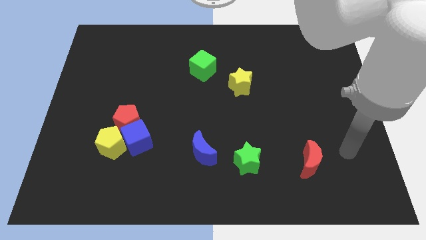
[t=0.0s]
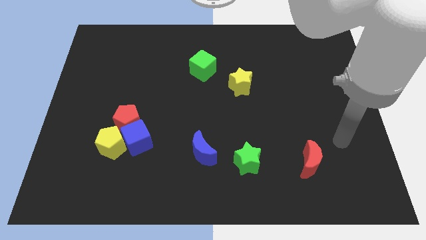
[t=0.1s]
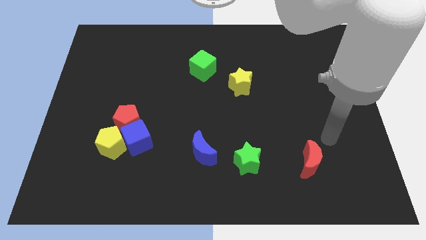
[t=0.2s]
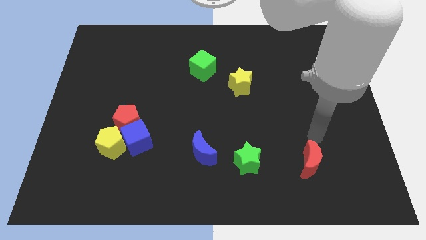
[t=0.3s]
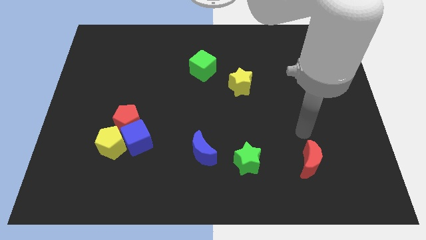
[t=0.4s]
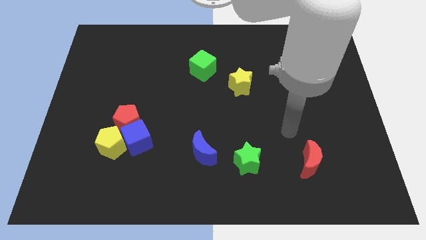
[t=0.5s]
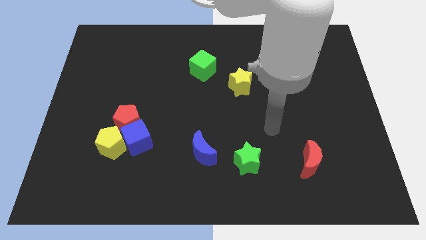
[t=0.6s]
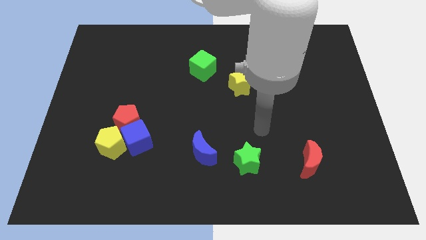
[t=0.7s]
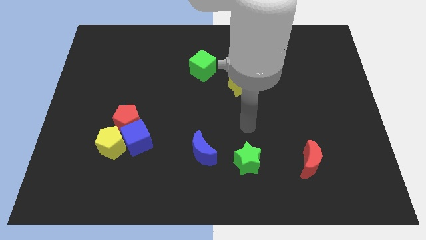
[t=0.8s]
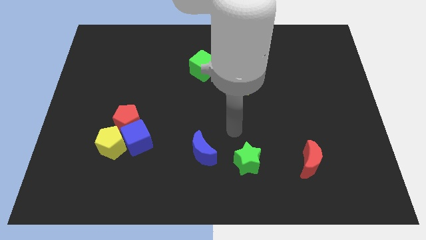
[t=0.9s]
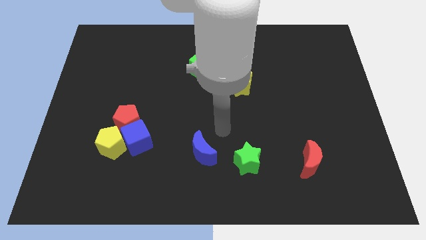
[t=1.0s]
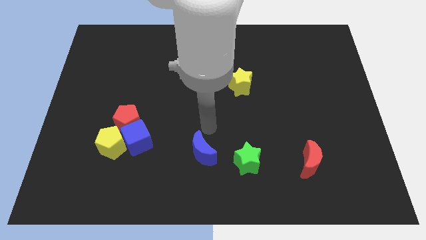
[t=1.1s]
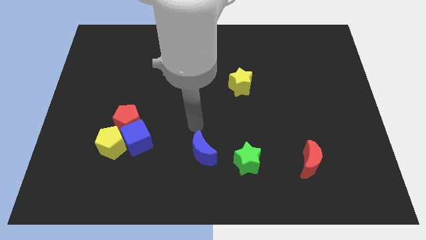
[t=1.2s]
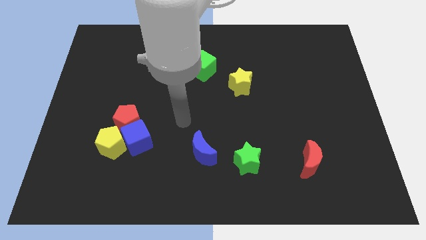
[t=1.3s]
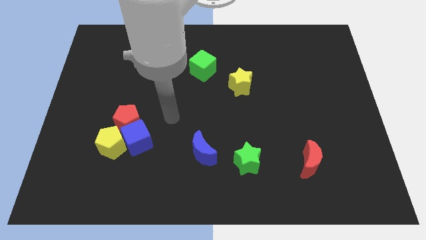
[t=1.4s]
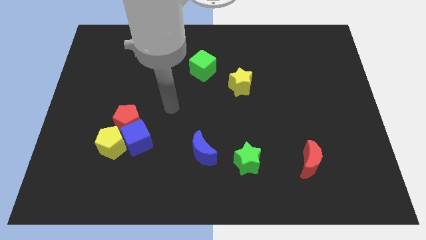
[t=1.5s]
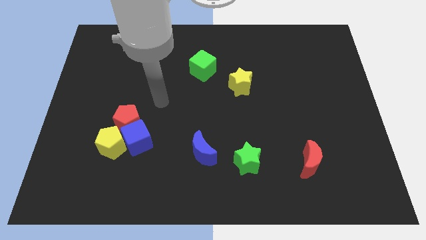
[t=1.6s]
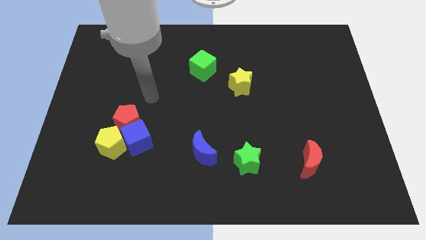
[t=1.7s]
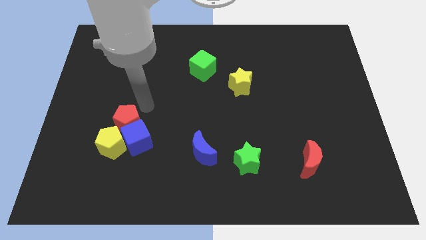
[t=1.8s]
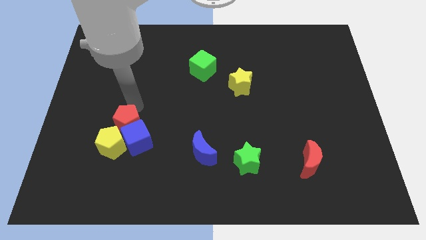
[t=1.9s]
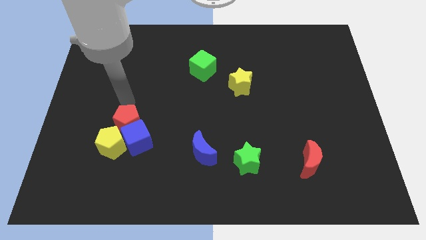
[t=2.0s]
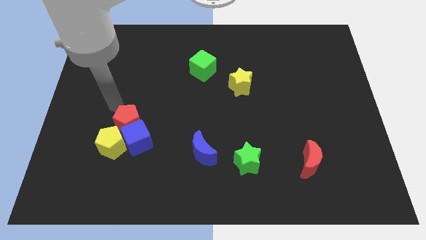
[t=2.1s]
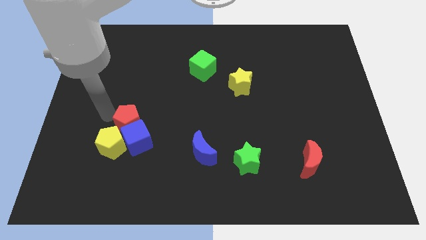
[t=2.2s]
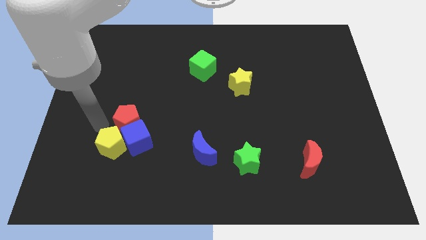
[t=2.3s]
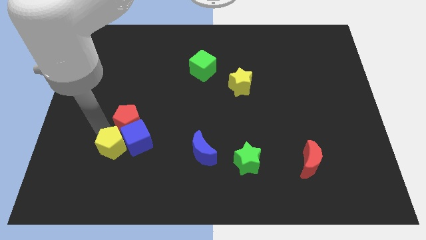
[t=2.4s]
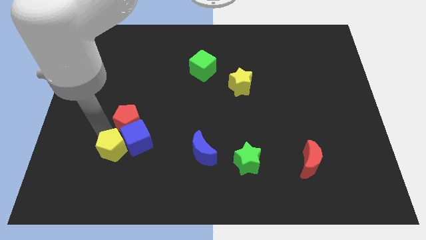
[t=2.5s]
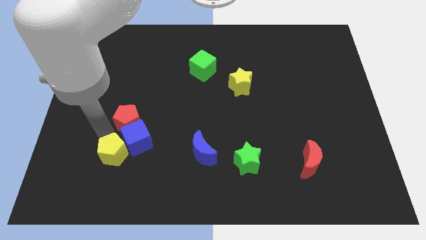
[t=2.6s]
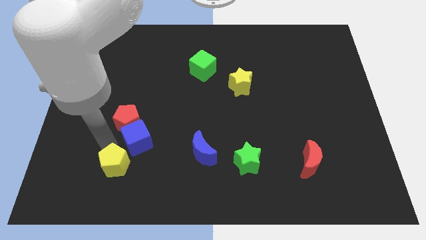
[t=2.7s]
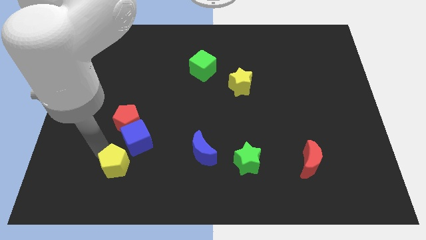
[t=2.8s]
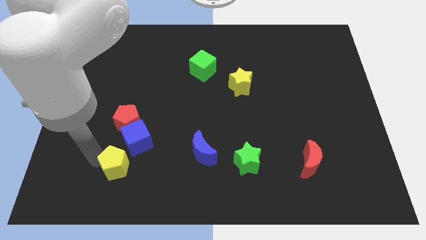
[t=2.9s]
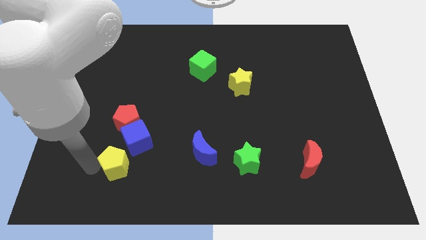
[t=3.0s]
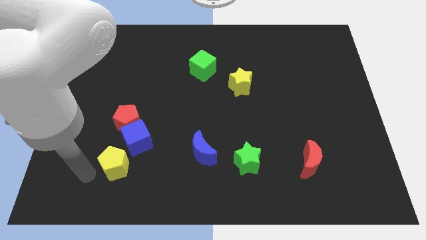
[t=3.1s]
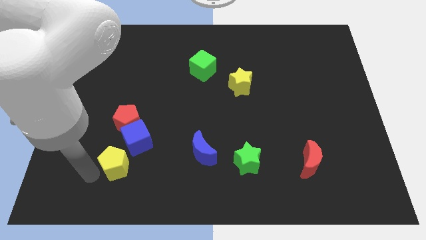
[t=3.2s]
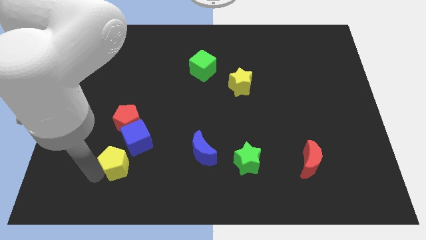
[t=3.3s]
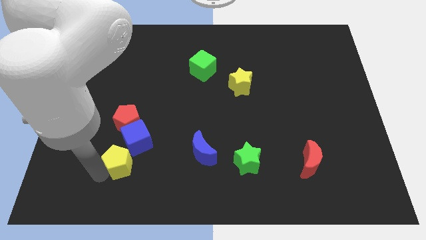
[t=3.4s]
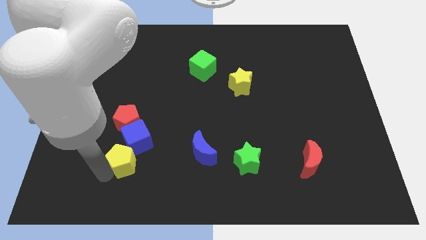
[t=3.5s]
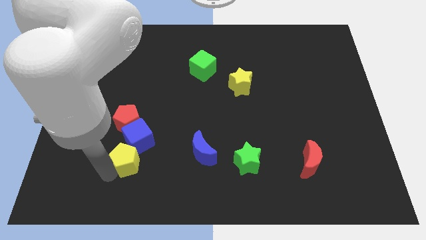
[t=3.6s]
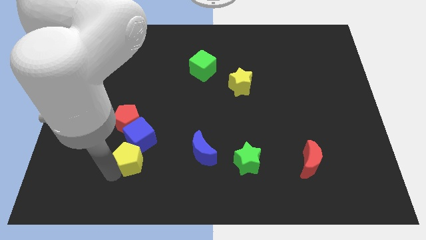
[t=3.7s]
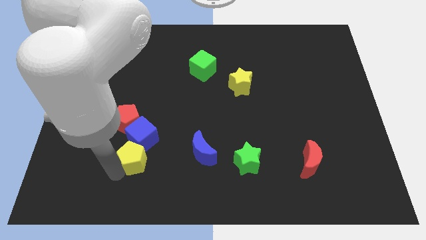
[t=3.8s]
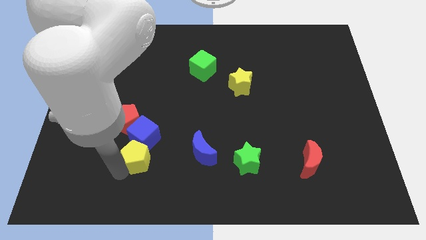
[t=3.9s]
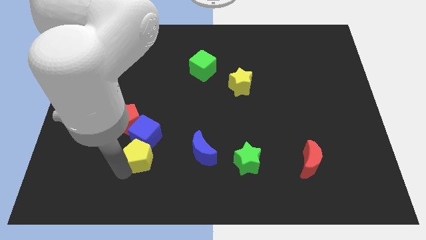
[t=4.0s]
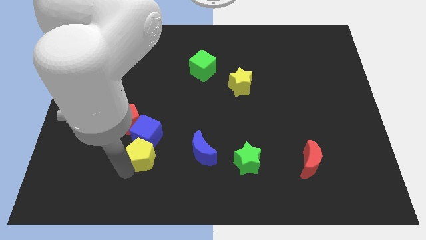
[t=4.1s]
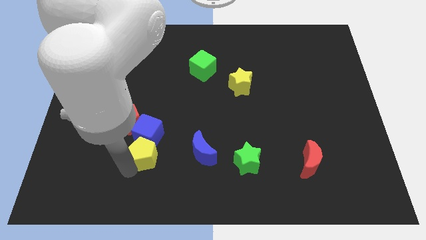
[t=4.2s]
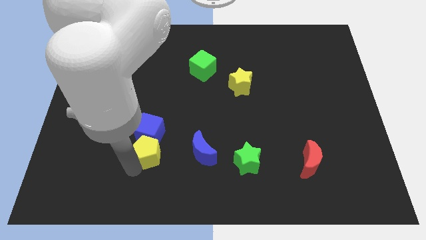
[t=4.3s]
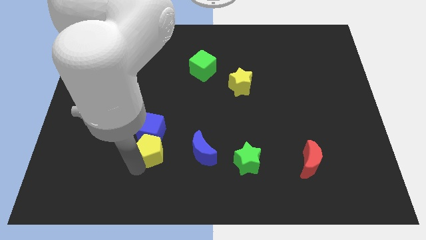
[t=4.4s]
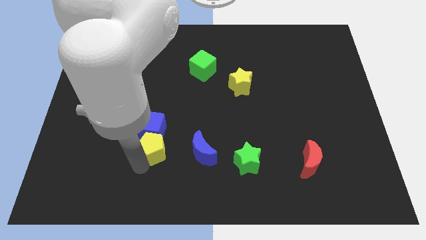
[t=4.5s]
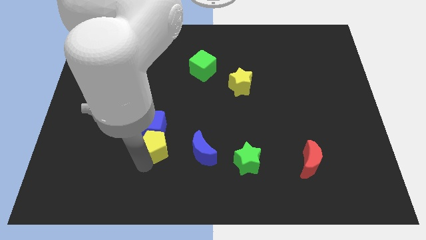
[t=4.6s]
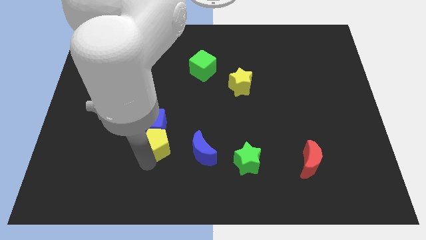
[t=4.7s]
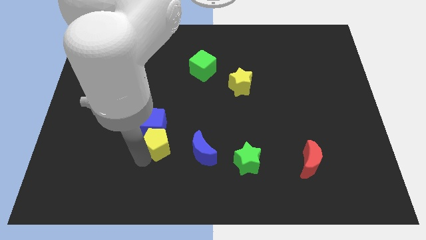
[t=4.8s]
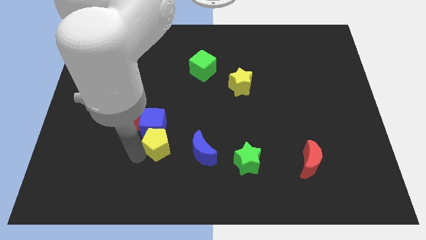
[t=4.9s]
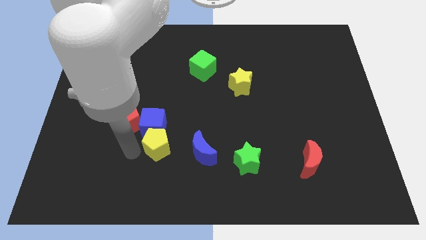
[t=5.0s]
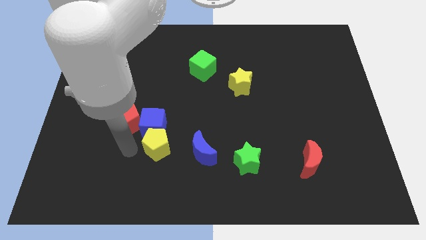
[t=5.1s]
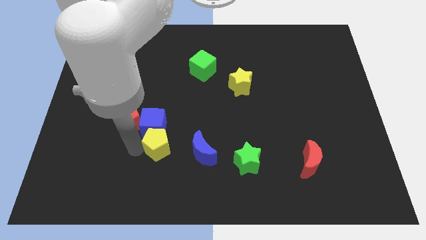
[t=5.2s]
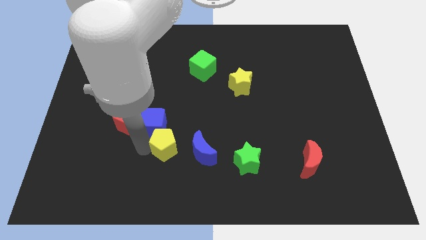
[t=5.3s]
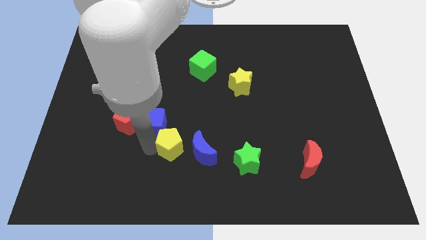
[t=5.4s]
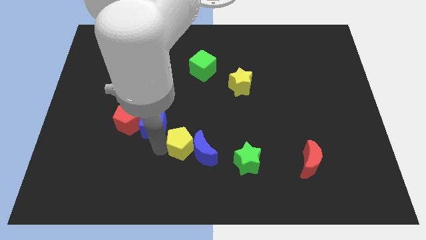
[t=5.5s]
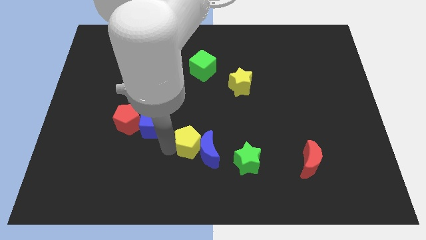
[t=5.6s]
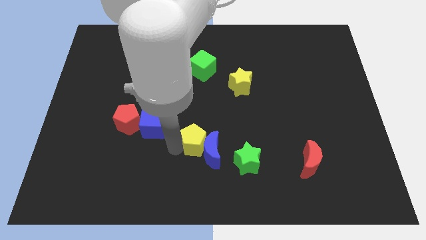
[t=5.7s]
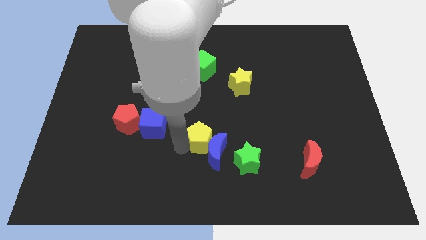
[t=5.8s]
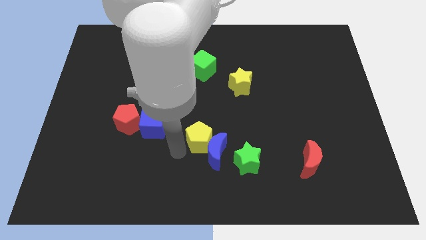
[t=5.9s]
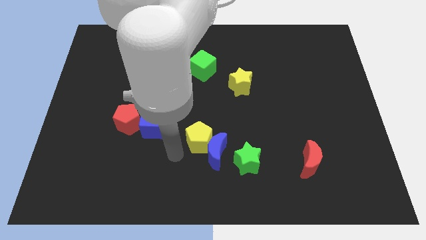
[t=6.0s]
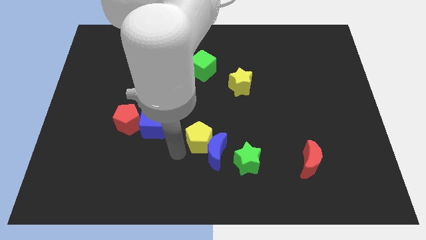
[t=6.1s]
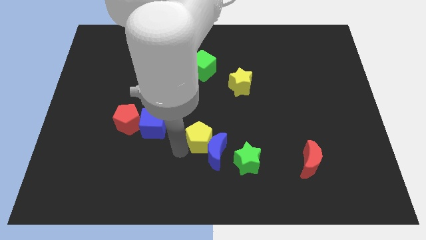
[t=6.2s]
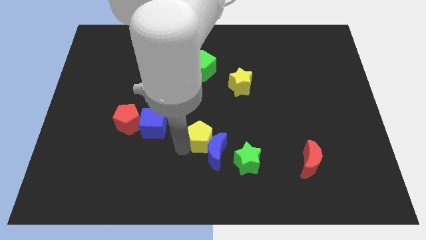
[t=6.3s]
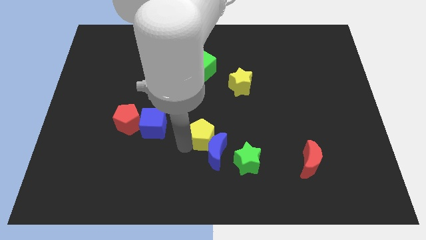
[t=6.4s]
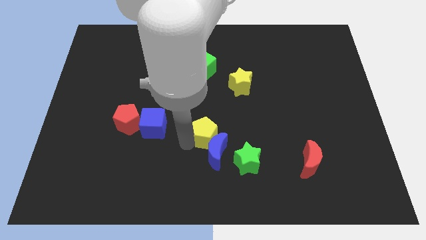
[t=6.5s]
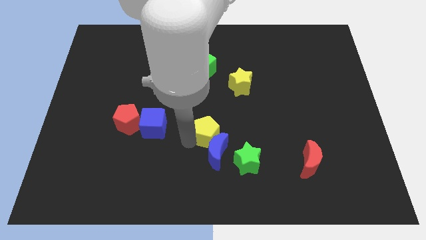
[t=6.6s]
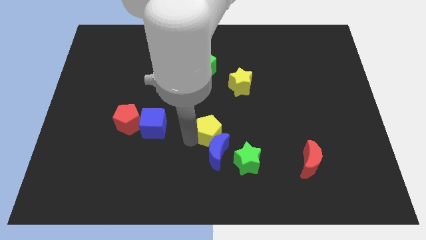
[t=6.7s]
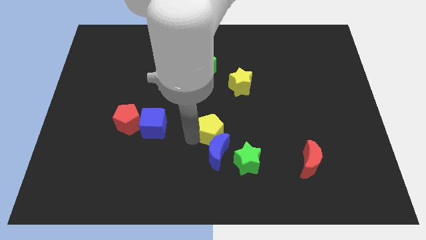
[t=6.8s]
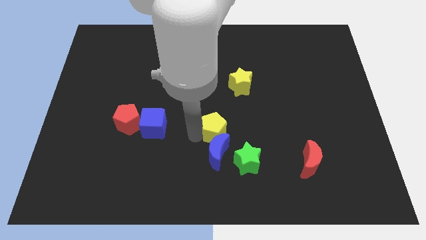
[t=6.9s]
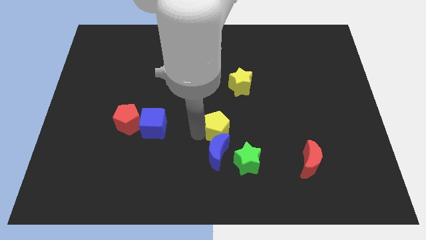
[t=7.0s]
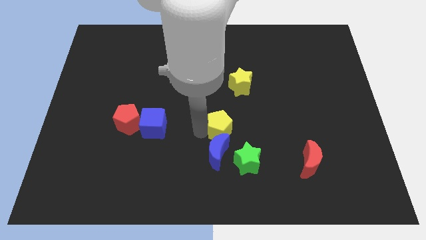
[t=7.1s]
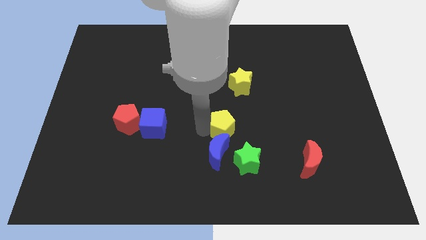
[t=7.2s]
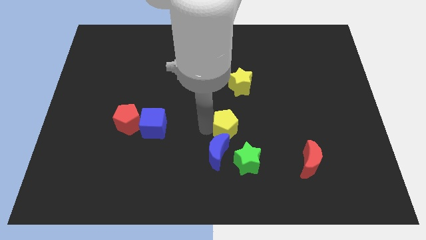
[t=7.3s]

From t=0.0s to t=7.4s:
push the yellow pentagon to the top side of the green star
